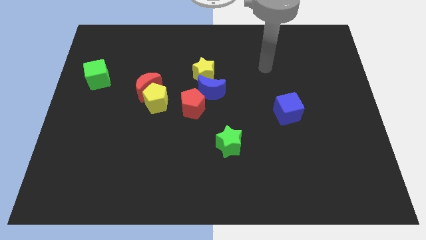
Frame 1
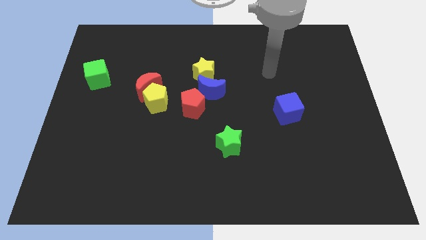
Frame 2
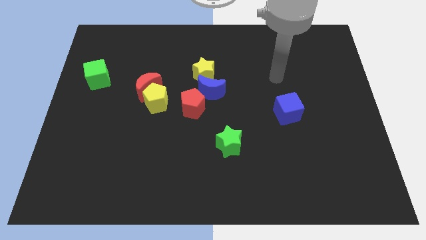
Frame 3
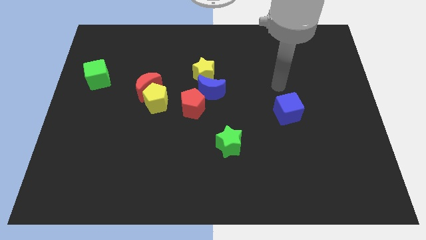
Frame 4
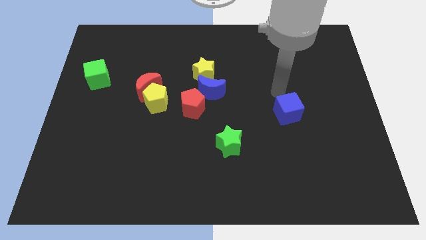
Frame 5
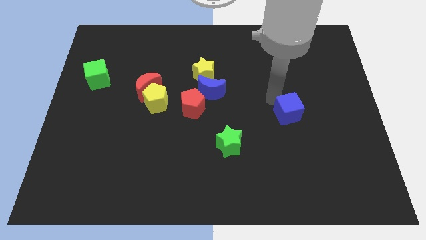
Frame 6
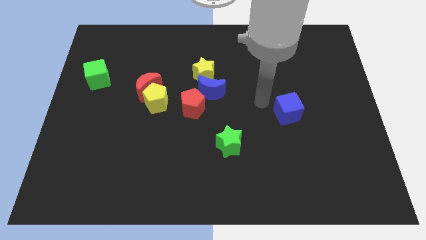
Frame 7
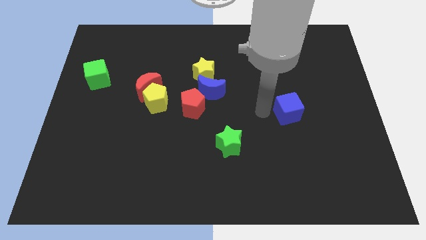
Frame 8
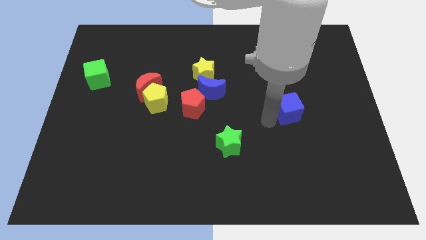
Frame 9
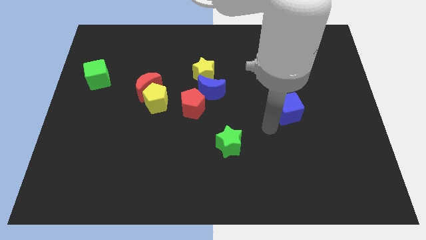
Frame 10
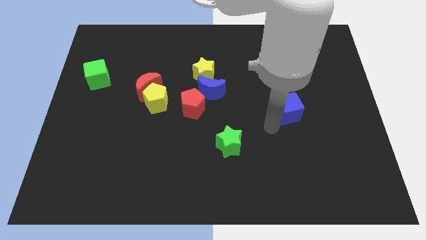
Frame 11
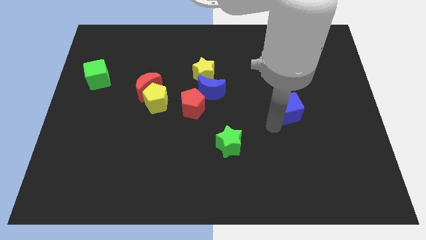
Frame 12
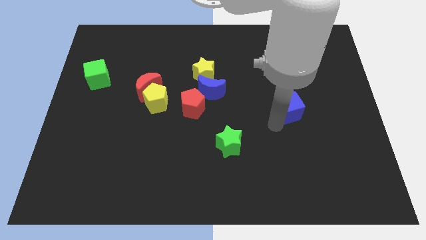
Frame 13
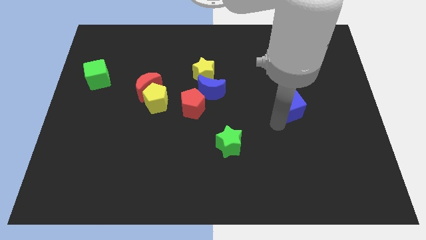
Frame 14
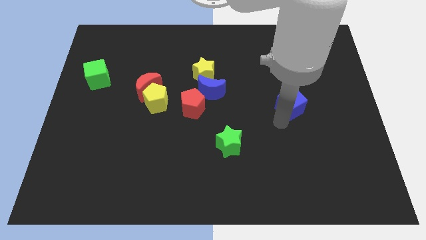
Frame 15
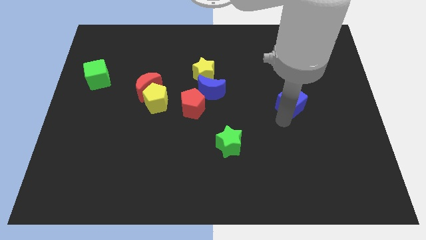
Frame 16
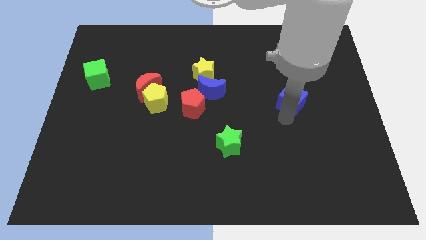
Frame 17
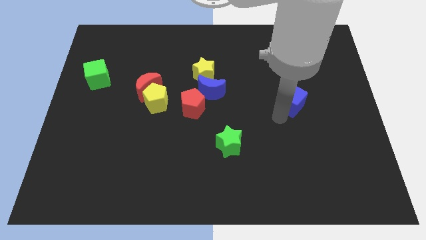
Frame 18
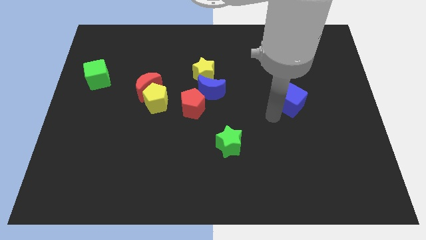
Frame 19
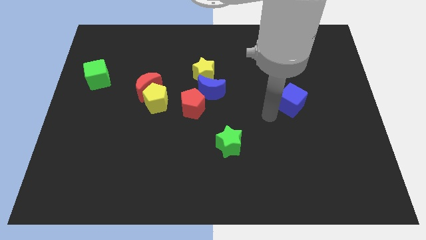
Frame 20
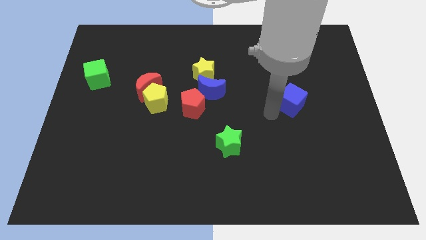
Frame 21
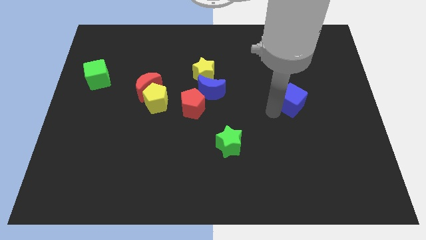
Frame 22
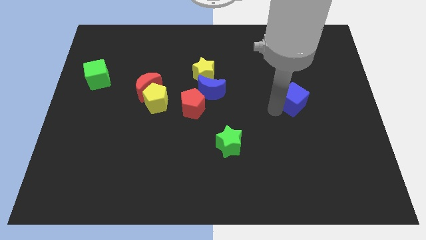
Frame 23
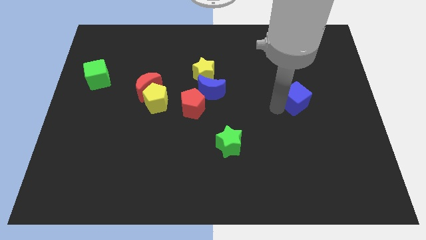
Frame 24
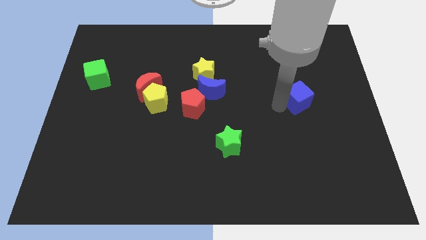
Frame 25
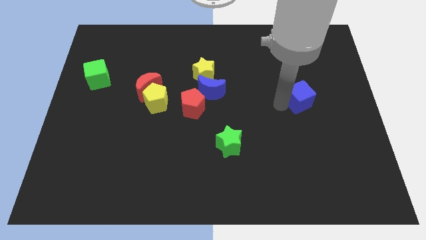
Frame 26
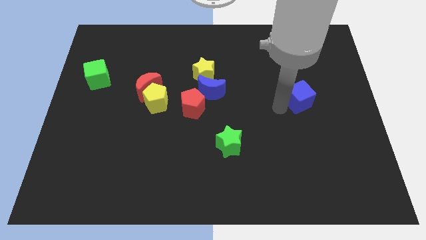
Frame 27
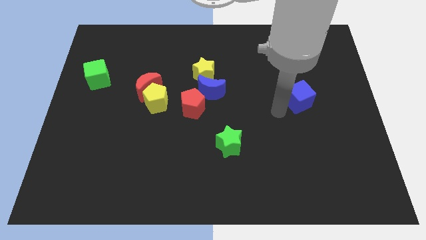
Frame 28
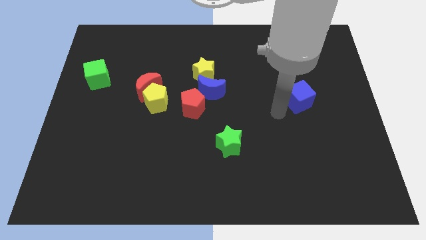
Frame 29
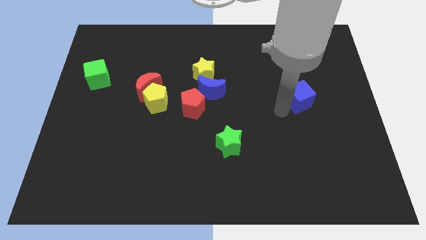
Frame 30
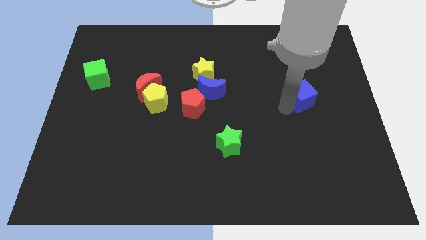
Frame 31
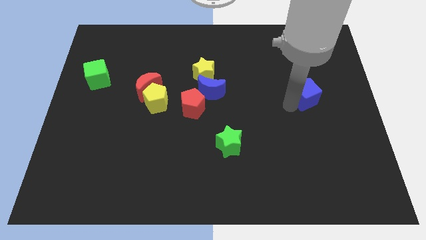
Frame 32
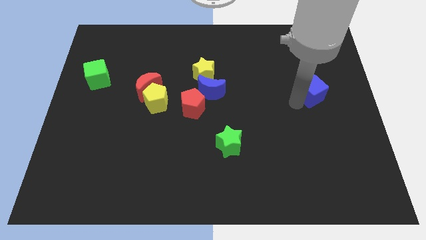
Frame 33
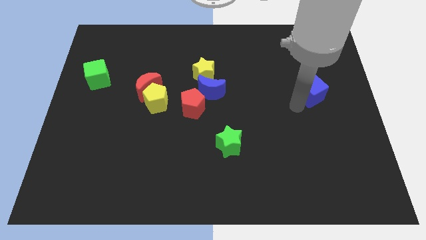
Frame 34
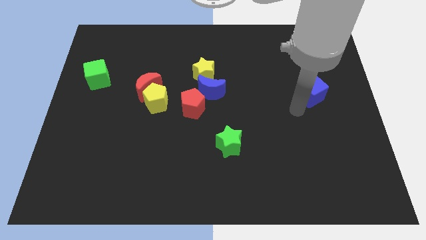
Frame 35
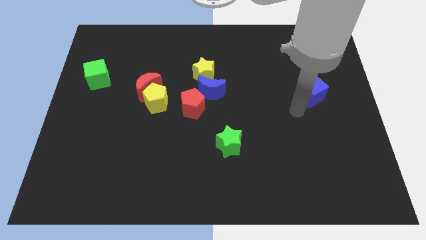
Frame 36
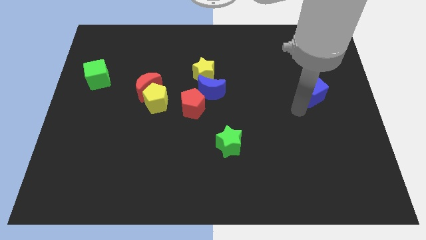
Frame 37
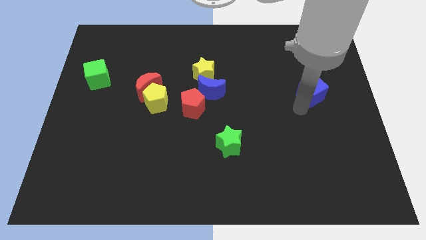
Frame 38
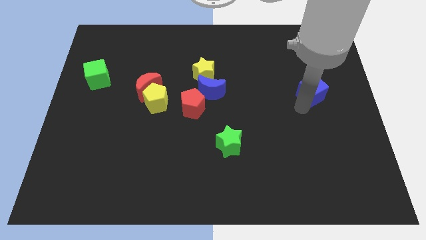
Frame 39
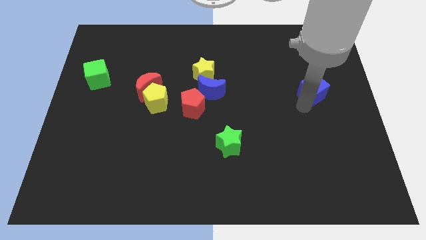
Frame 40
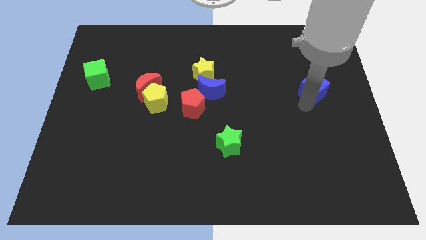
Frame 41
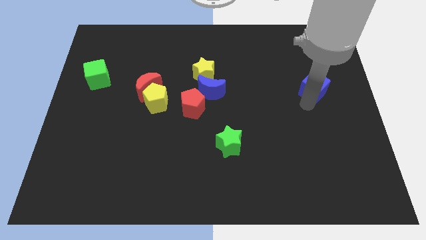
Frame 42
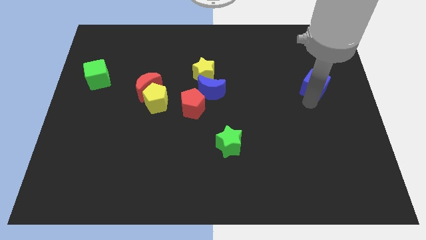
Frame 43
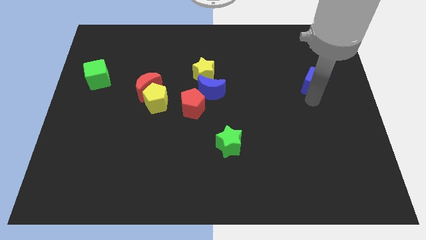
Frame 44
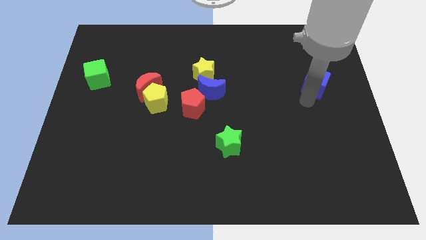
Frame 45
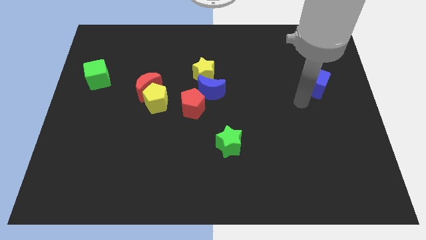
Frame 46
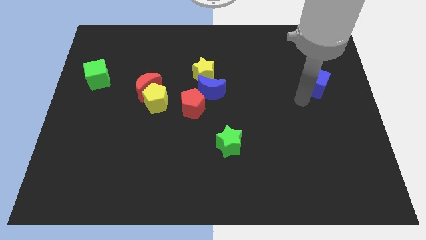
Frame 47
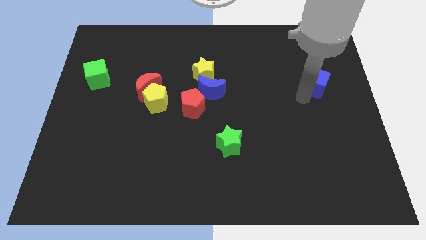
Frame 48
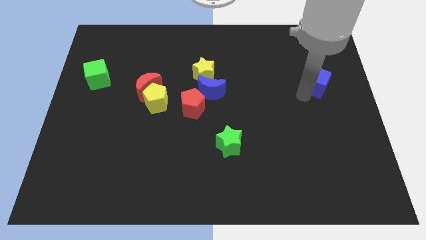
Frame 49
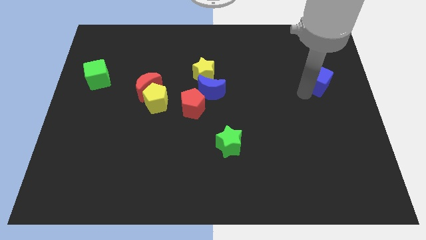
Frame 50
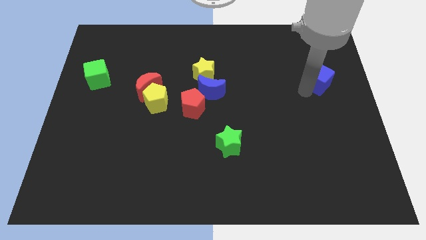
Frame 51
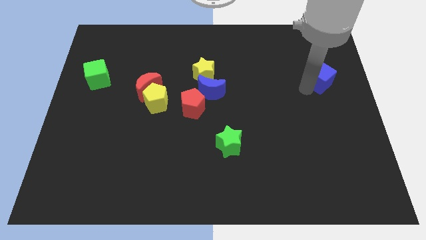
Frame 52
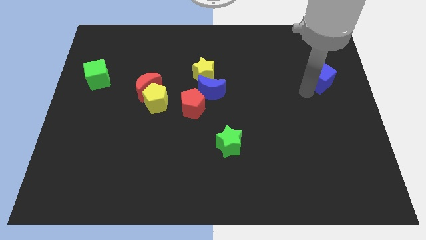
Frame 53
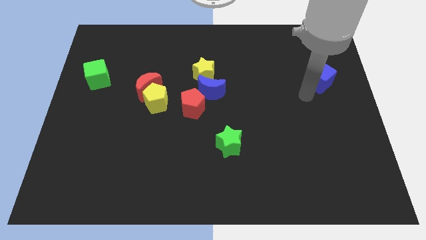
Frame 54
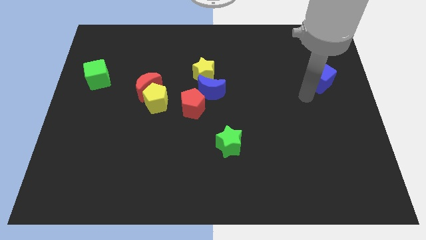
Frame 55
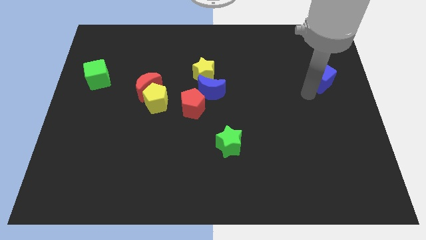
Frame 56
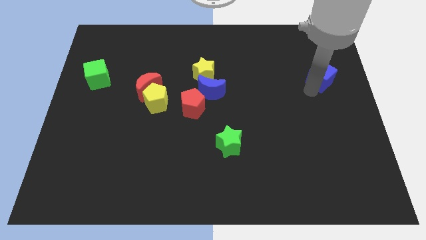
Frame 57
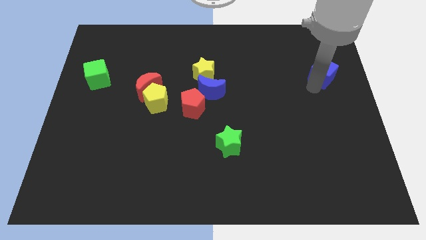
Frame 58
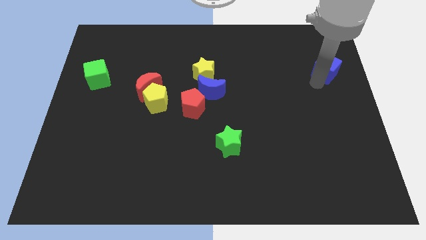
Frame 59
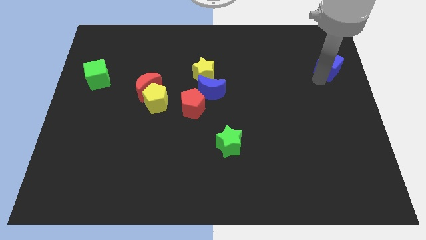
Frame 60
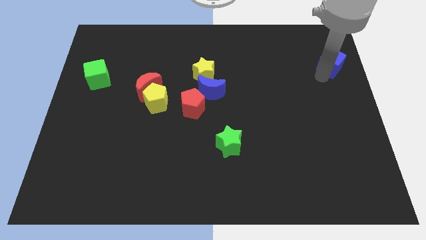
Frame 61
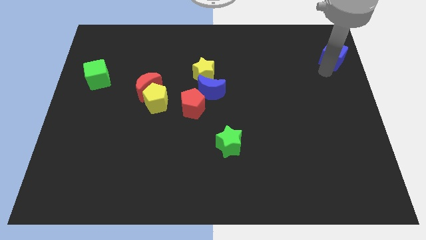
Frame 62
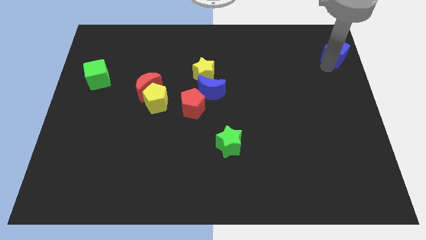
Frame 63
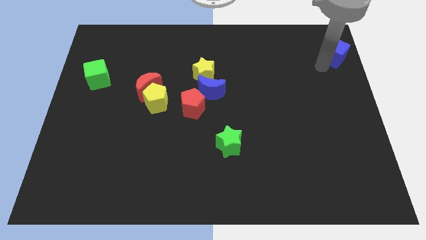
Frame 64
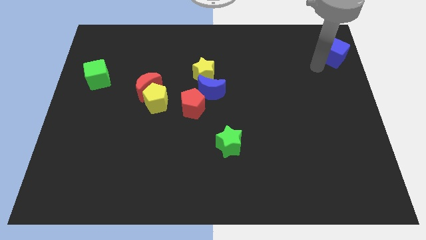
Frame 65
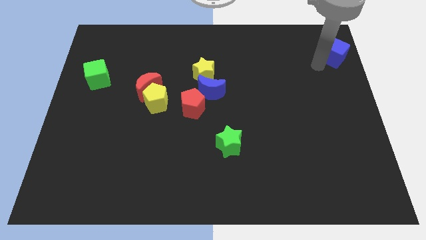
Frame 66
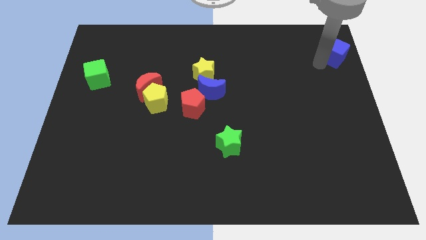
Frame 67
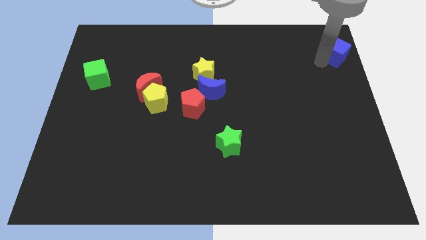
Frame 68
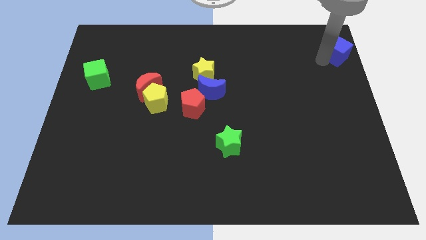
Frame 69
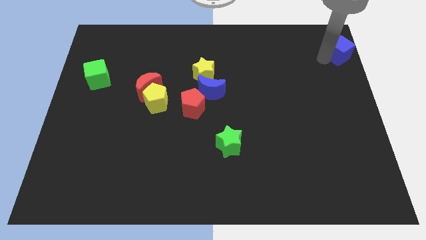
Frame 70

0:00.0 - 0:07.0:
push the blue cube to the top right corner
